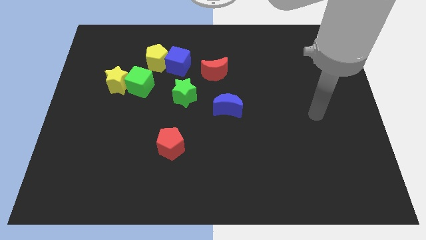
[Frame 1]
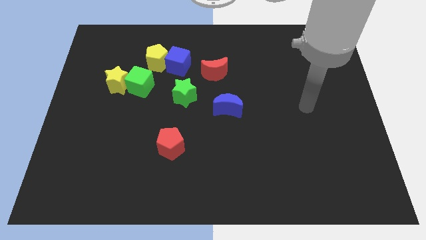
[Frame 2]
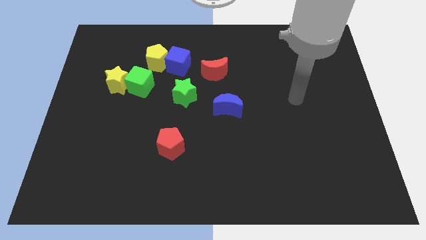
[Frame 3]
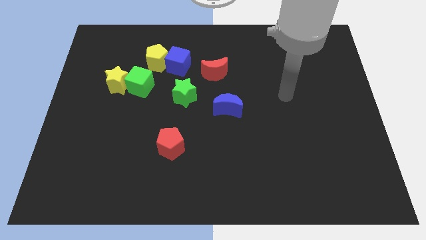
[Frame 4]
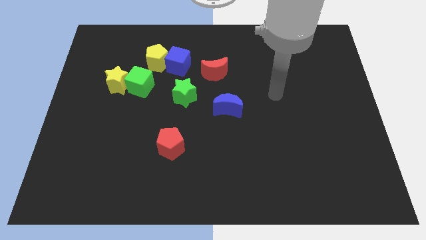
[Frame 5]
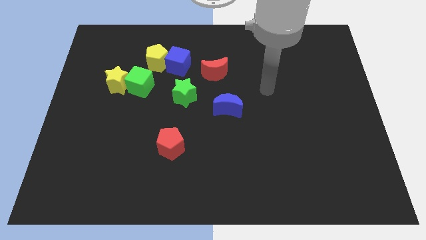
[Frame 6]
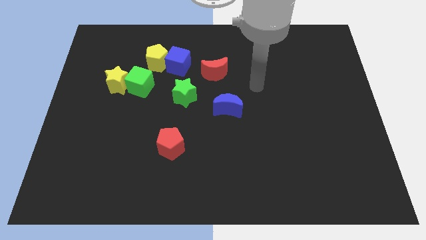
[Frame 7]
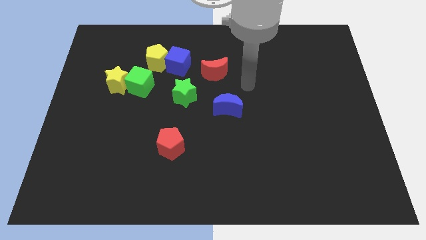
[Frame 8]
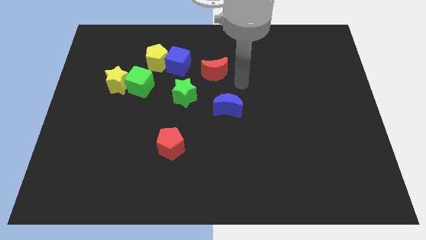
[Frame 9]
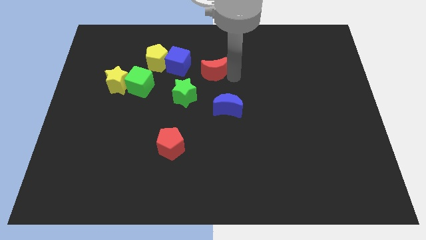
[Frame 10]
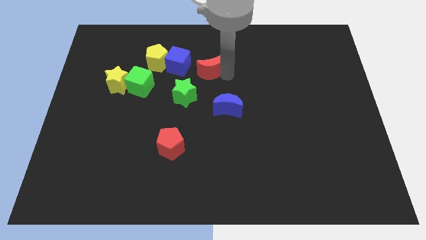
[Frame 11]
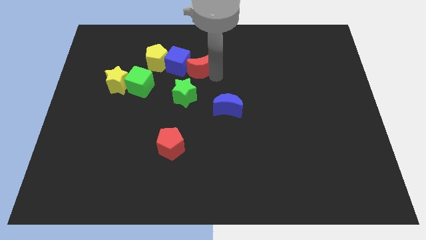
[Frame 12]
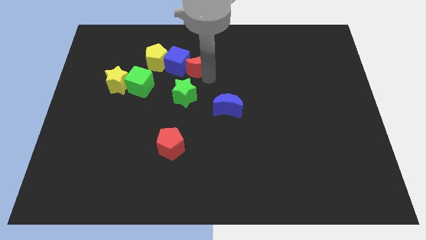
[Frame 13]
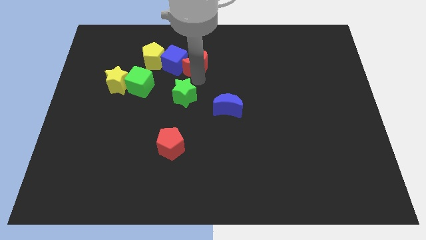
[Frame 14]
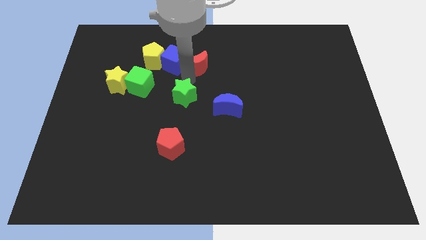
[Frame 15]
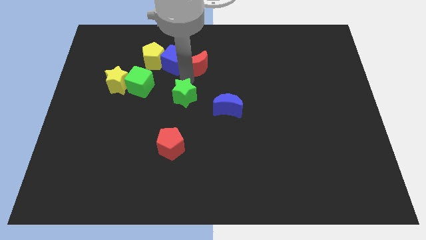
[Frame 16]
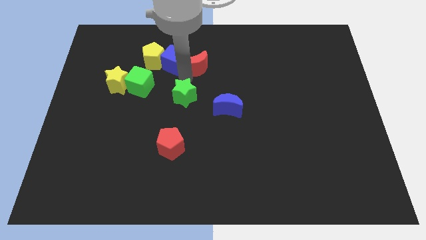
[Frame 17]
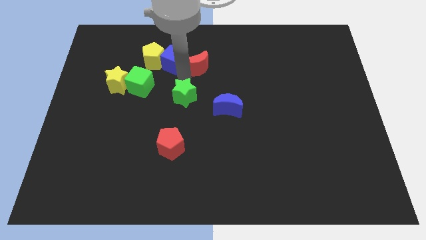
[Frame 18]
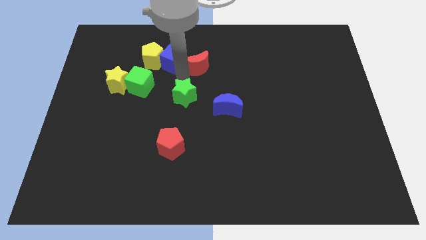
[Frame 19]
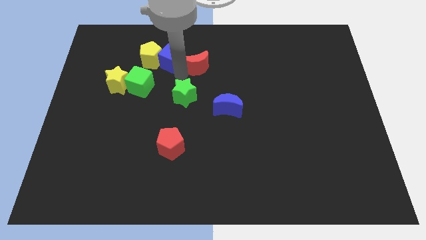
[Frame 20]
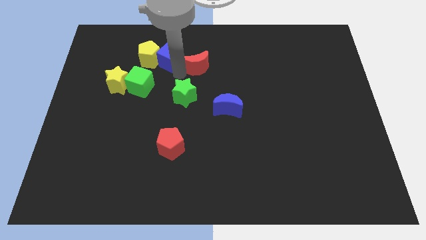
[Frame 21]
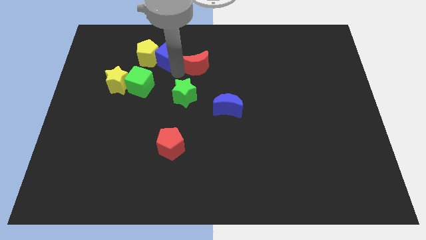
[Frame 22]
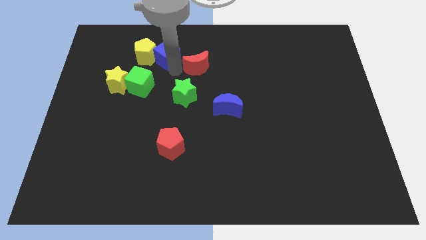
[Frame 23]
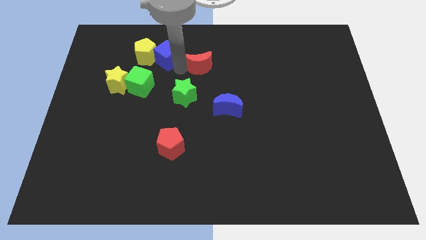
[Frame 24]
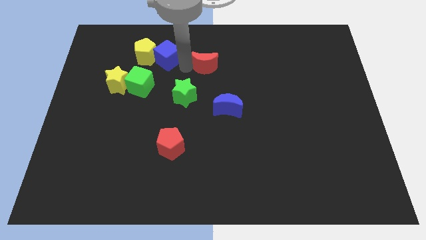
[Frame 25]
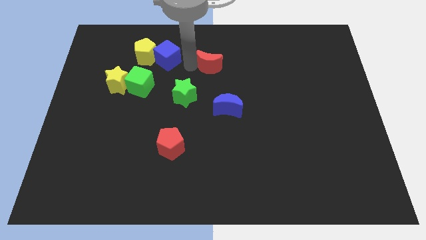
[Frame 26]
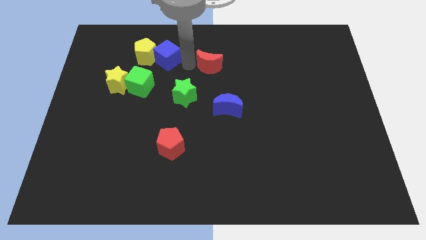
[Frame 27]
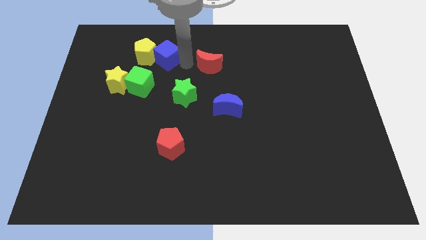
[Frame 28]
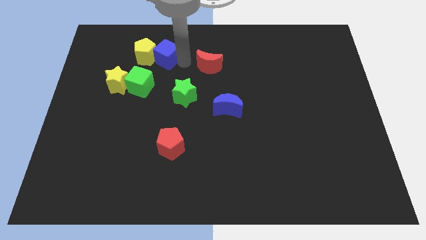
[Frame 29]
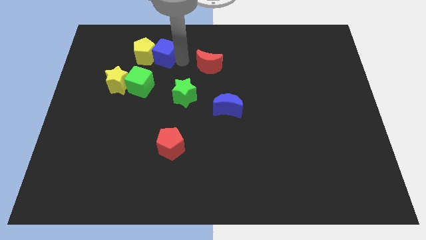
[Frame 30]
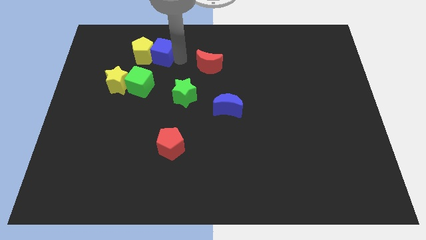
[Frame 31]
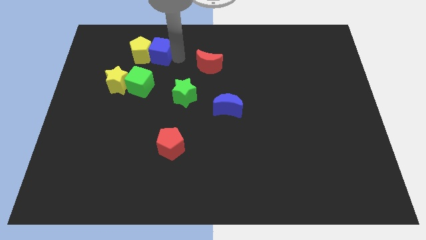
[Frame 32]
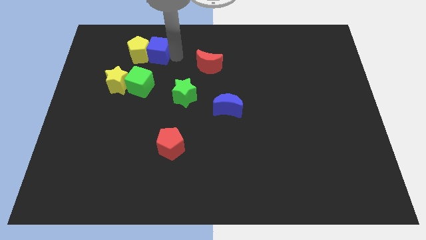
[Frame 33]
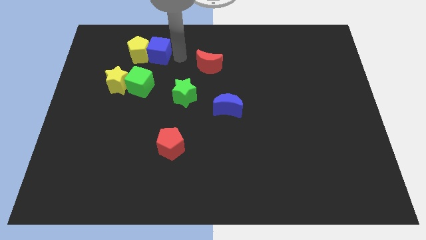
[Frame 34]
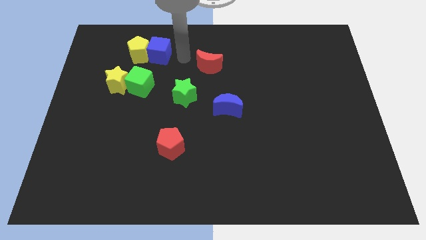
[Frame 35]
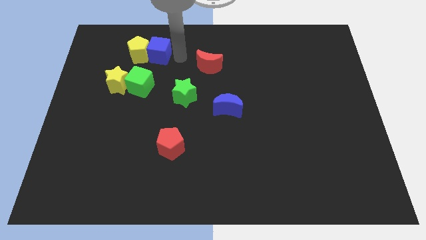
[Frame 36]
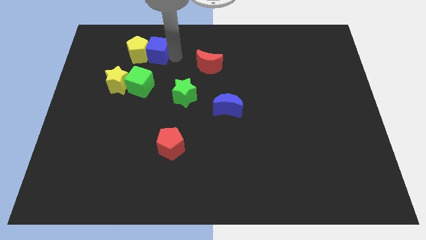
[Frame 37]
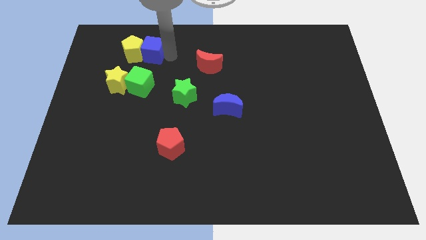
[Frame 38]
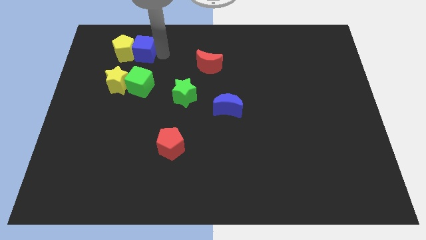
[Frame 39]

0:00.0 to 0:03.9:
slightly move the blue cube left

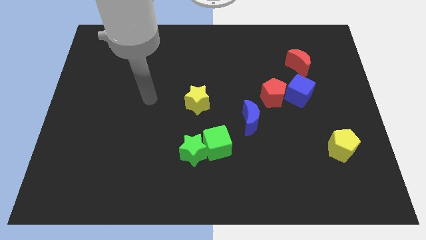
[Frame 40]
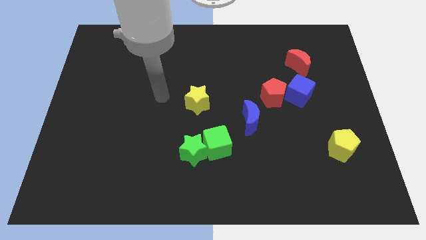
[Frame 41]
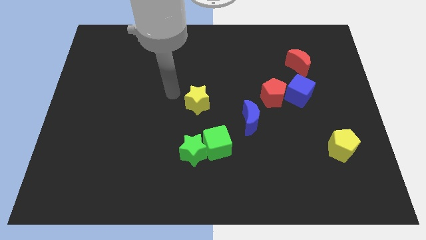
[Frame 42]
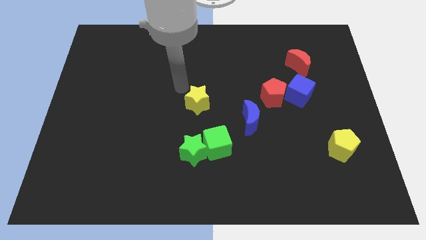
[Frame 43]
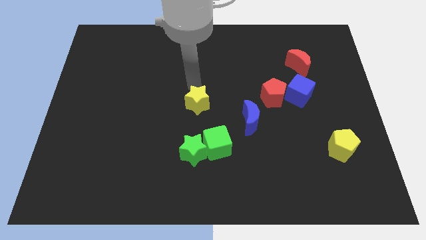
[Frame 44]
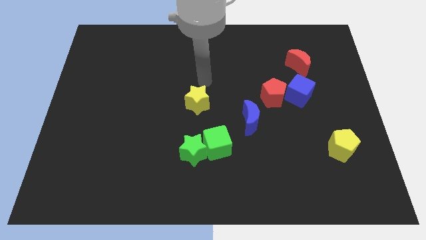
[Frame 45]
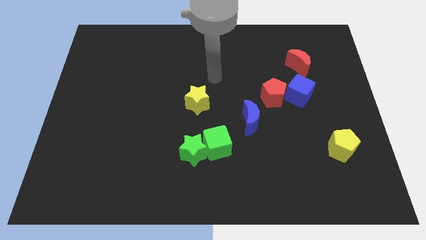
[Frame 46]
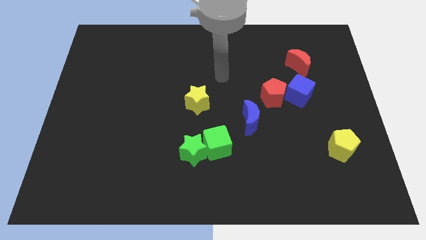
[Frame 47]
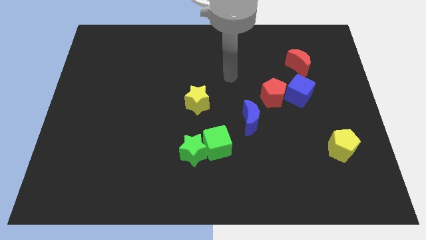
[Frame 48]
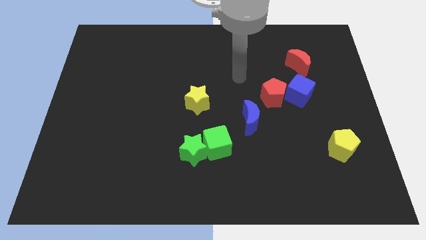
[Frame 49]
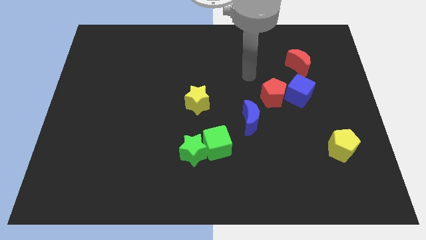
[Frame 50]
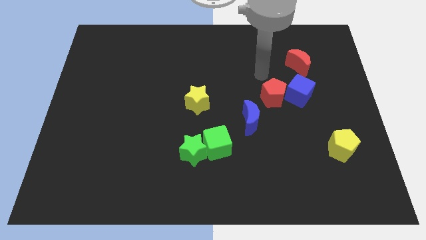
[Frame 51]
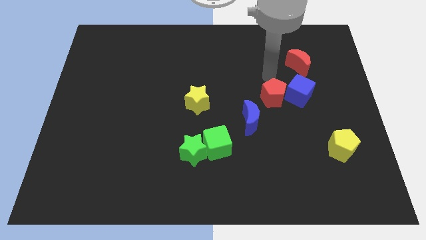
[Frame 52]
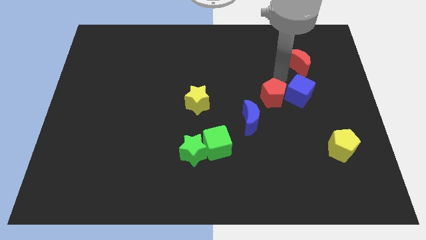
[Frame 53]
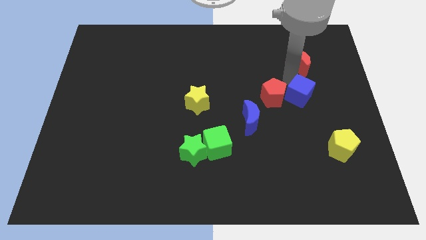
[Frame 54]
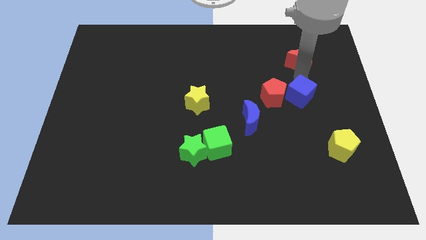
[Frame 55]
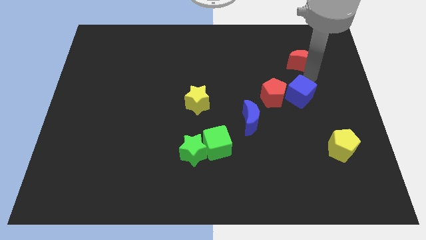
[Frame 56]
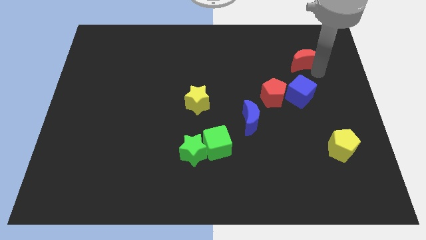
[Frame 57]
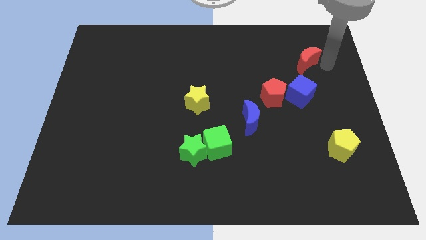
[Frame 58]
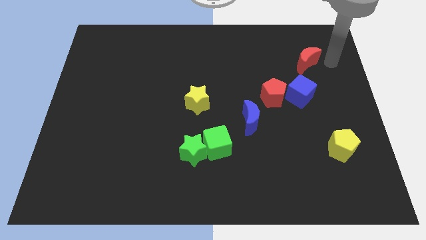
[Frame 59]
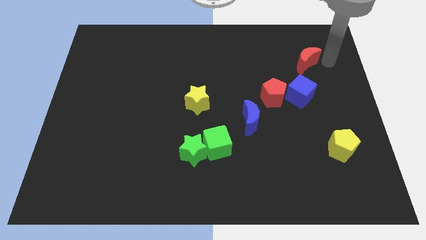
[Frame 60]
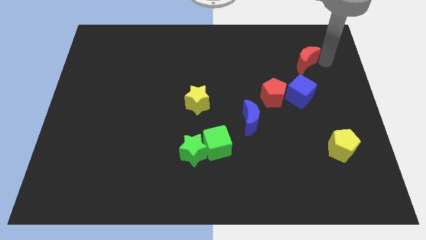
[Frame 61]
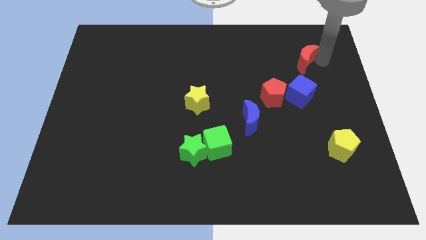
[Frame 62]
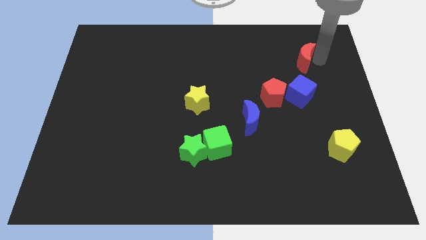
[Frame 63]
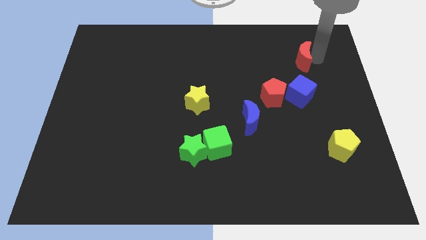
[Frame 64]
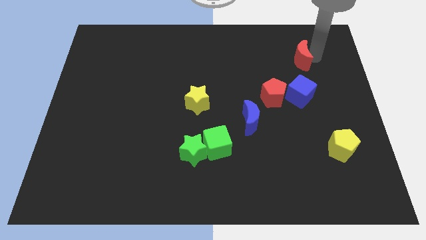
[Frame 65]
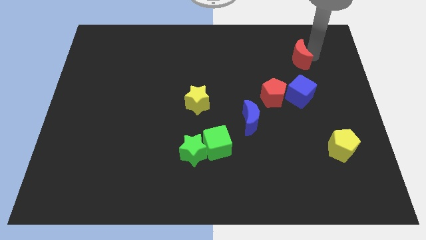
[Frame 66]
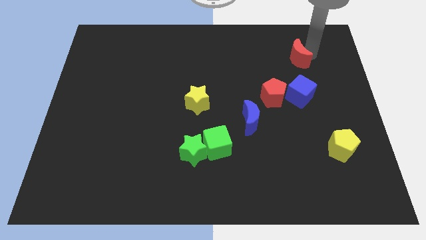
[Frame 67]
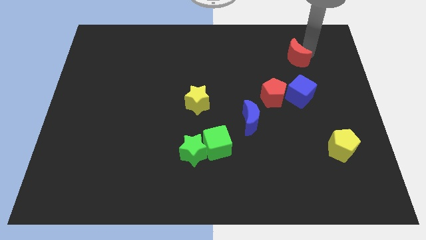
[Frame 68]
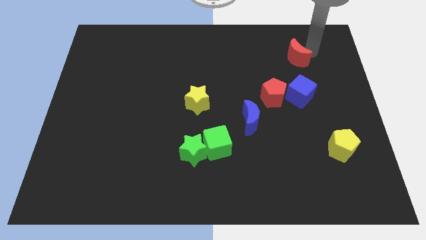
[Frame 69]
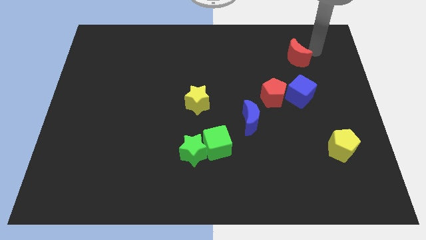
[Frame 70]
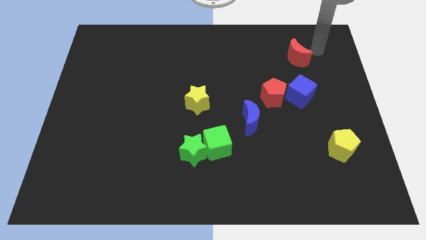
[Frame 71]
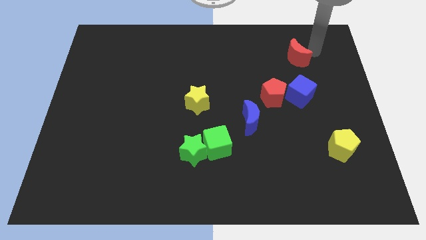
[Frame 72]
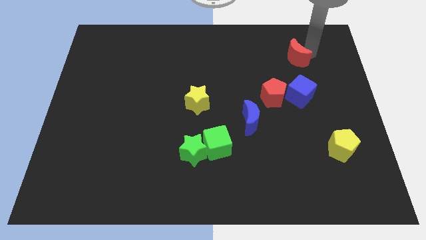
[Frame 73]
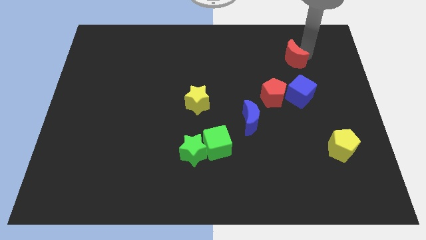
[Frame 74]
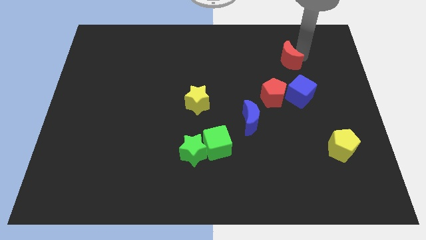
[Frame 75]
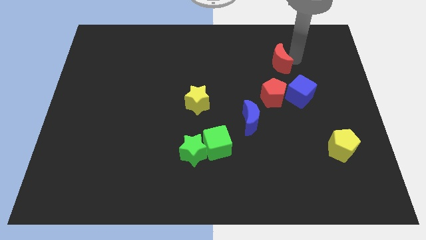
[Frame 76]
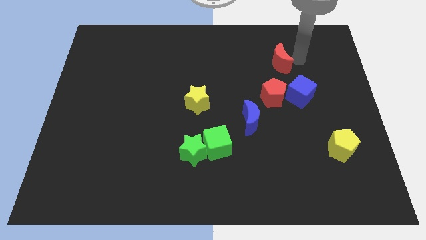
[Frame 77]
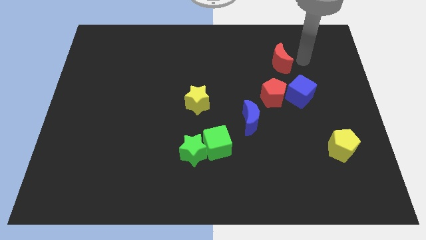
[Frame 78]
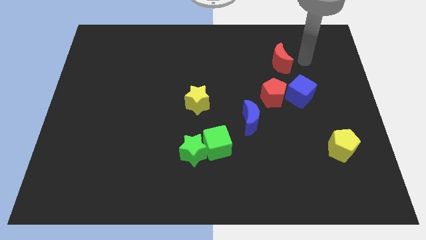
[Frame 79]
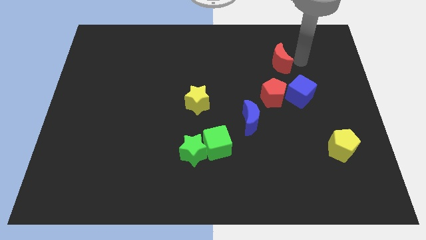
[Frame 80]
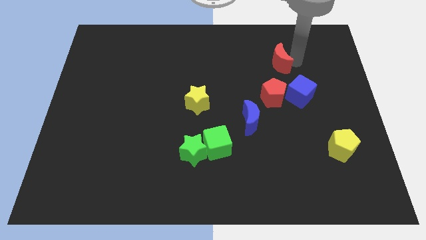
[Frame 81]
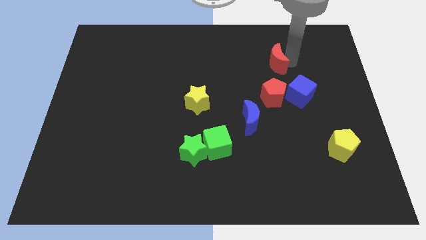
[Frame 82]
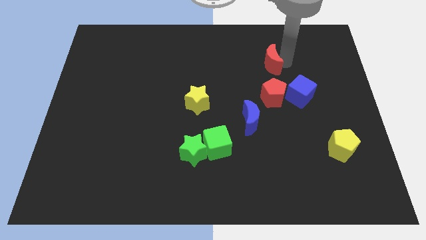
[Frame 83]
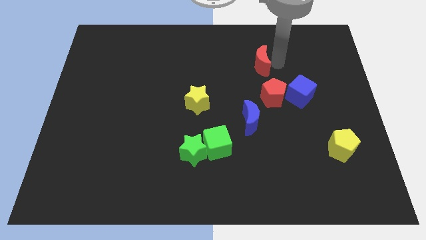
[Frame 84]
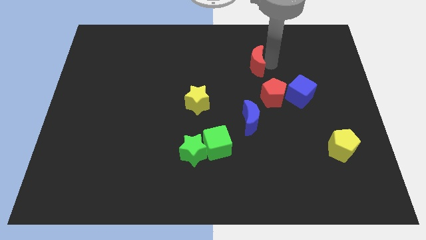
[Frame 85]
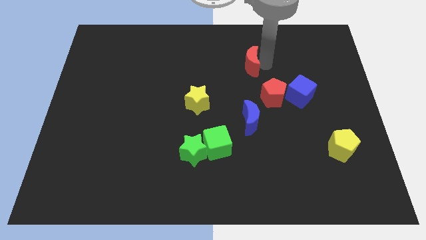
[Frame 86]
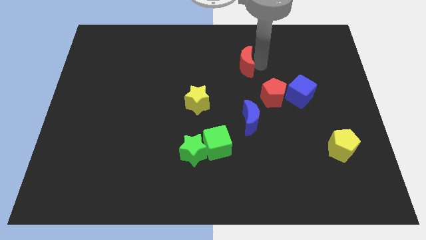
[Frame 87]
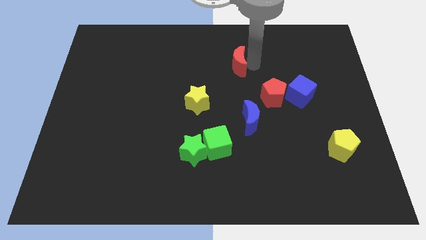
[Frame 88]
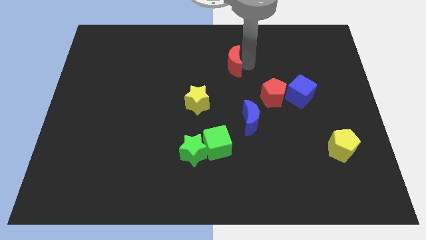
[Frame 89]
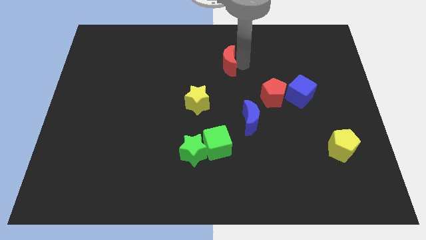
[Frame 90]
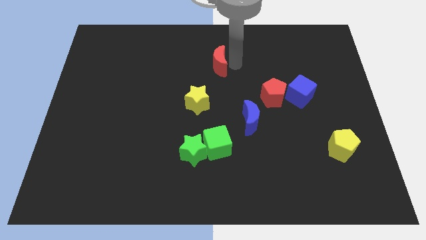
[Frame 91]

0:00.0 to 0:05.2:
slide the red moon to the left
